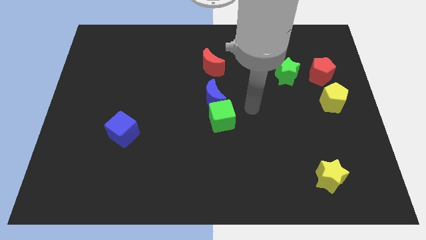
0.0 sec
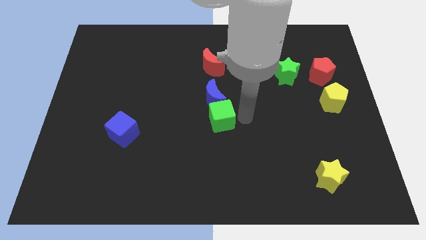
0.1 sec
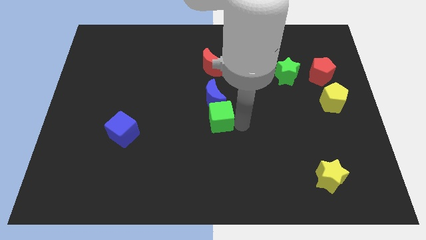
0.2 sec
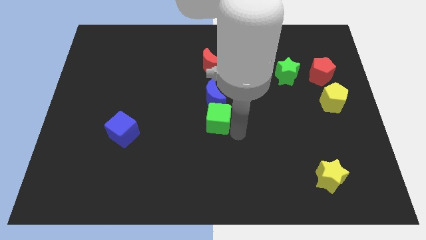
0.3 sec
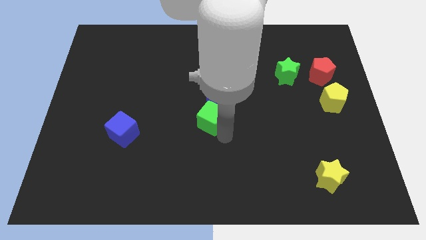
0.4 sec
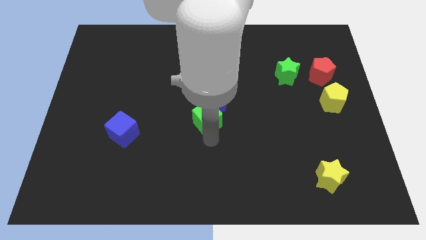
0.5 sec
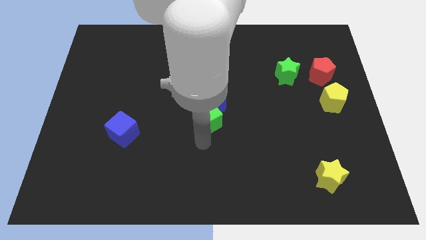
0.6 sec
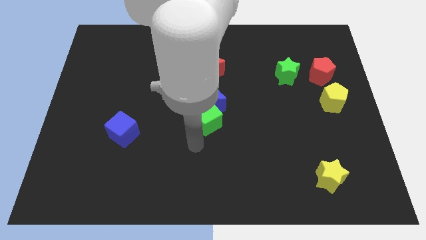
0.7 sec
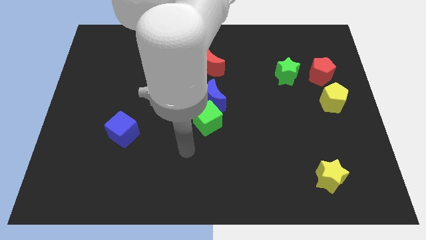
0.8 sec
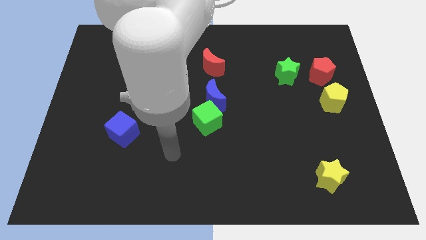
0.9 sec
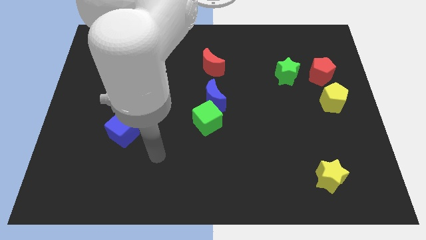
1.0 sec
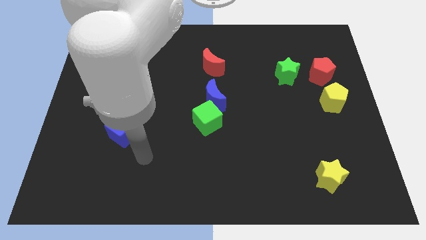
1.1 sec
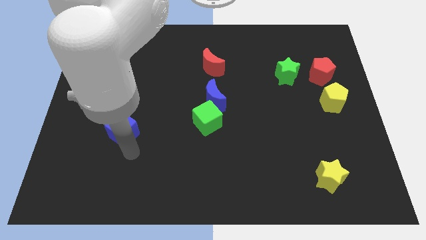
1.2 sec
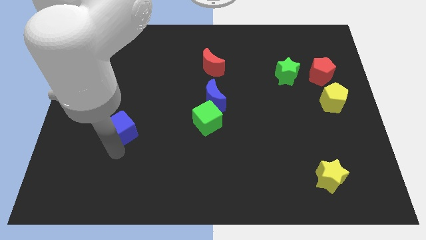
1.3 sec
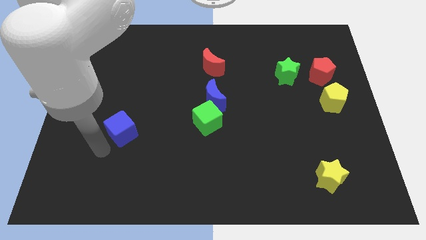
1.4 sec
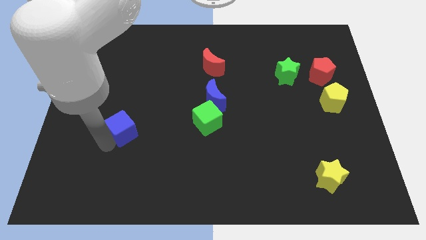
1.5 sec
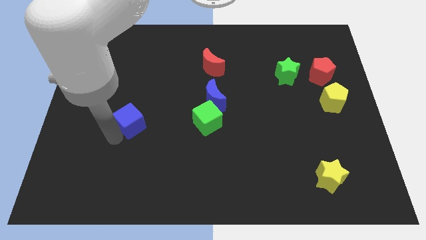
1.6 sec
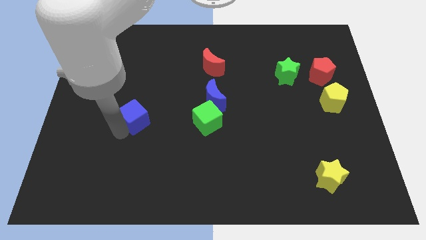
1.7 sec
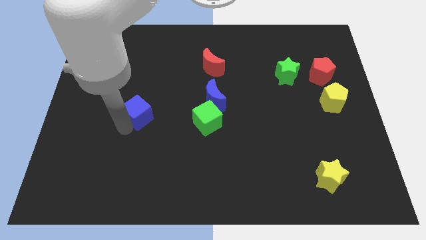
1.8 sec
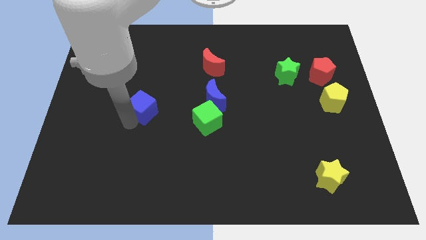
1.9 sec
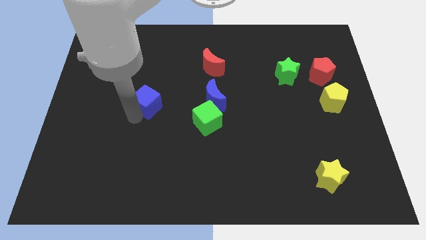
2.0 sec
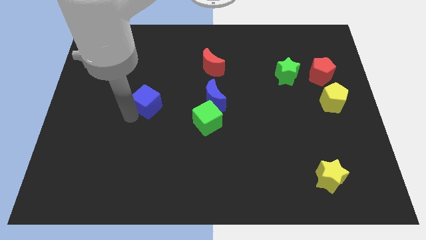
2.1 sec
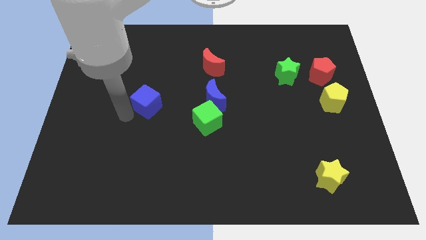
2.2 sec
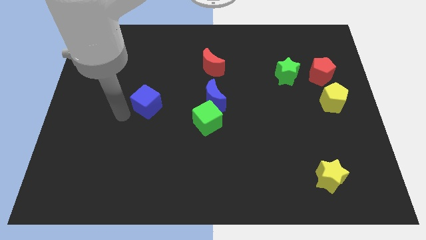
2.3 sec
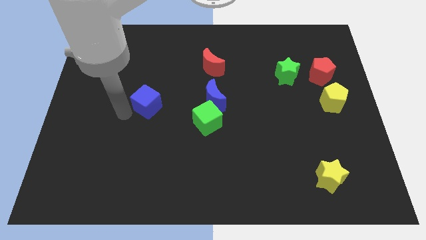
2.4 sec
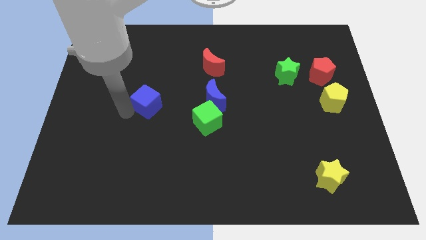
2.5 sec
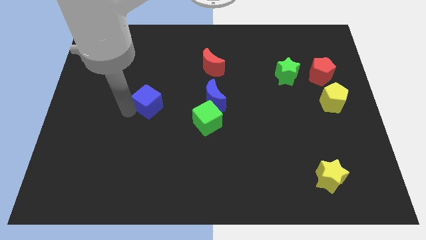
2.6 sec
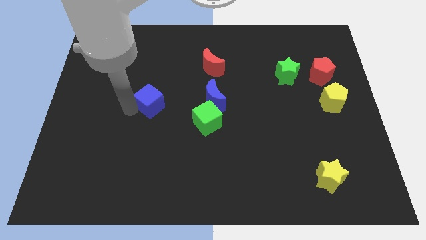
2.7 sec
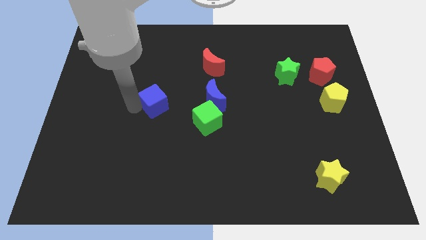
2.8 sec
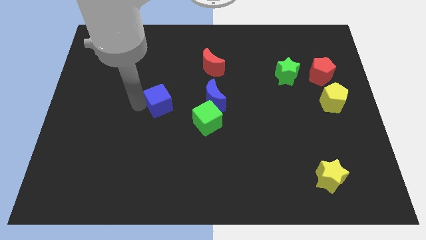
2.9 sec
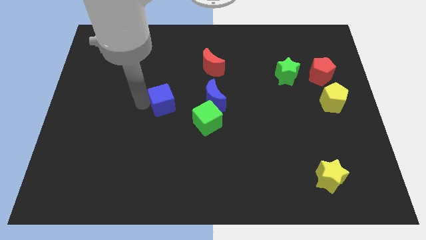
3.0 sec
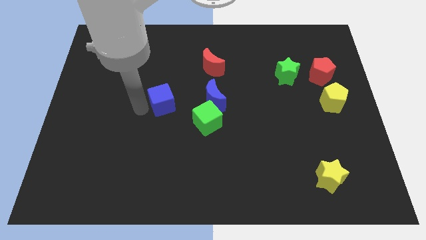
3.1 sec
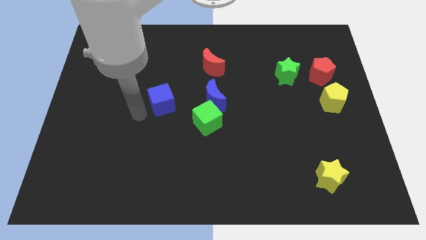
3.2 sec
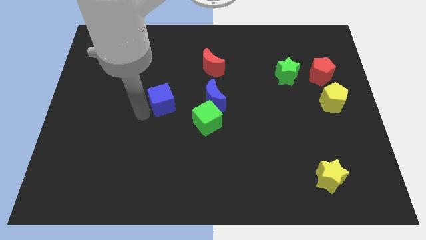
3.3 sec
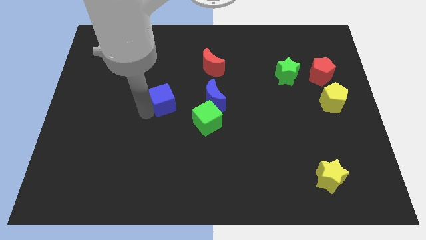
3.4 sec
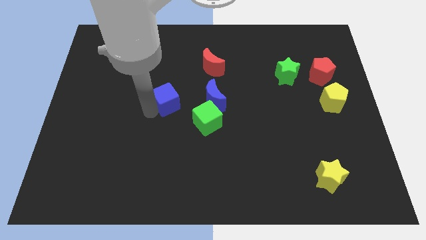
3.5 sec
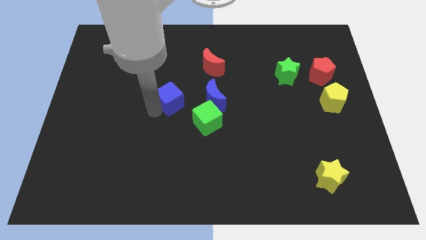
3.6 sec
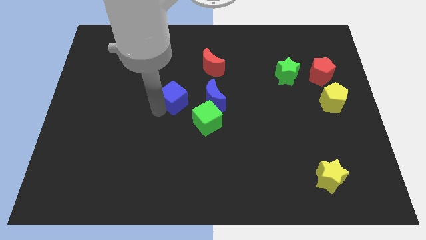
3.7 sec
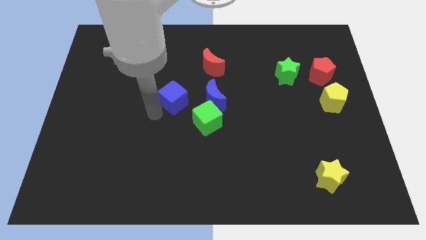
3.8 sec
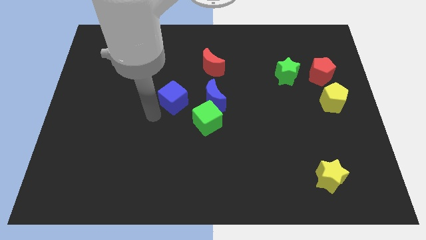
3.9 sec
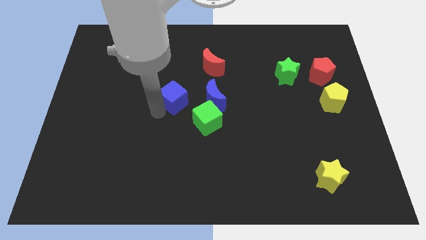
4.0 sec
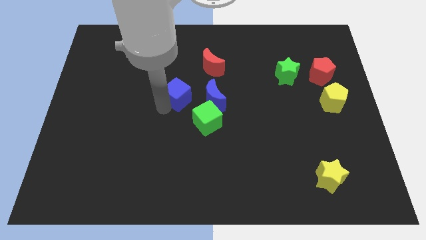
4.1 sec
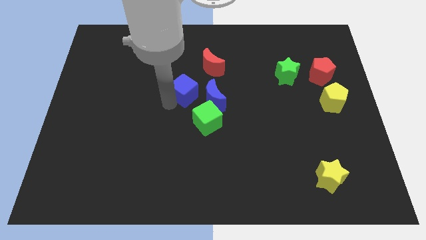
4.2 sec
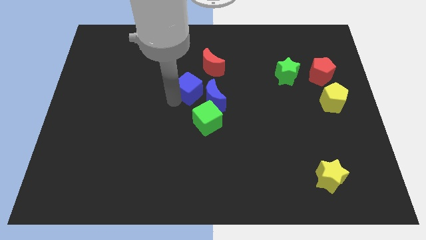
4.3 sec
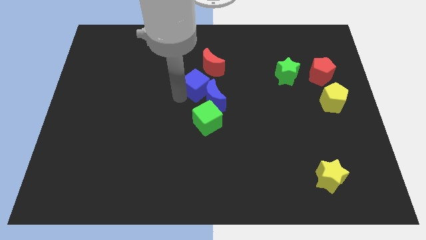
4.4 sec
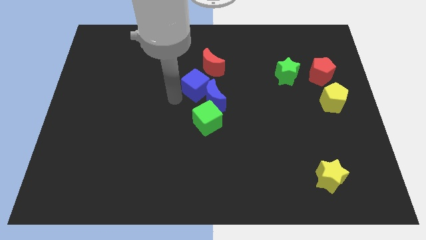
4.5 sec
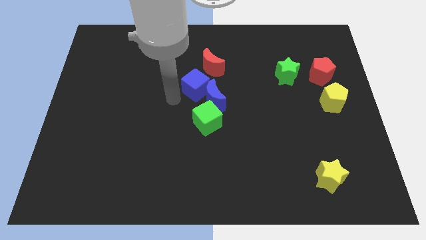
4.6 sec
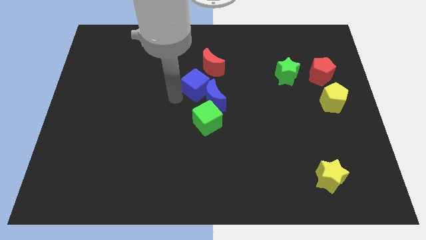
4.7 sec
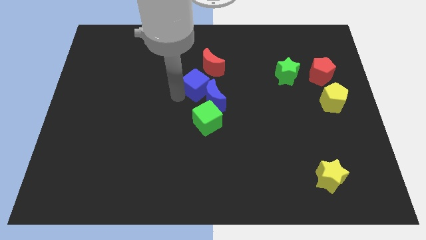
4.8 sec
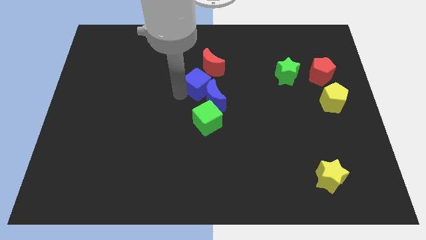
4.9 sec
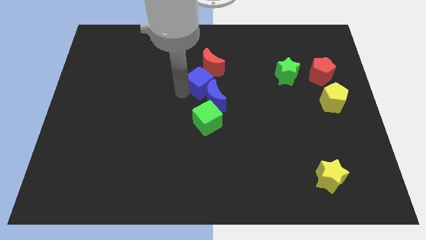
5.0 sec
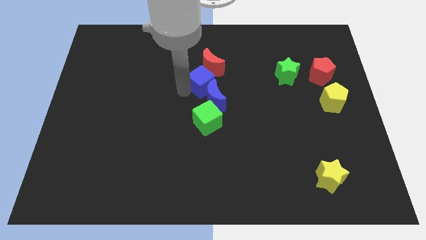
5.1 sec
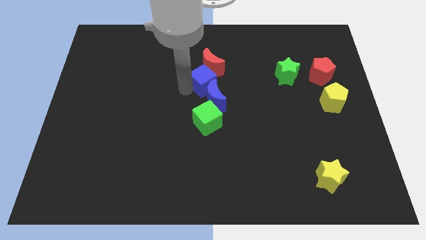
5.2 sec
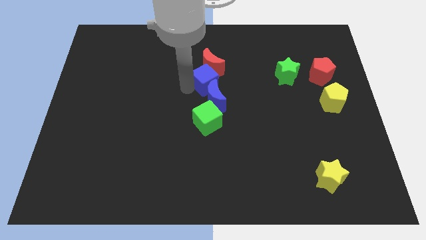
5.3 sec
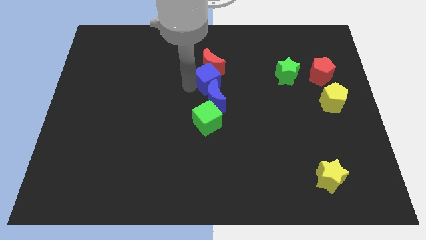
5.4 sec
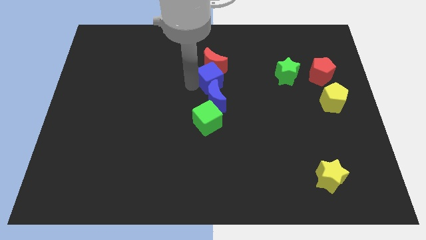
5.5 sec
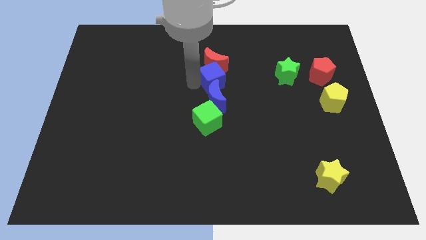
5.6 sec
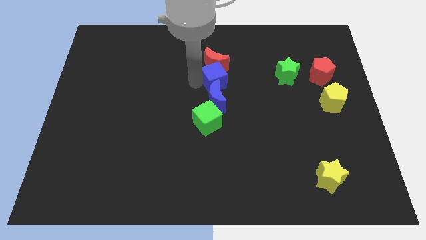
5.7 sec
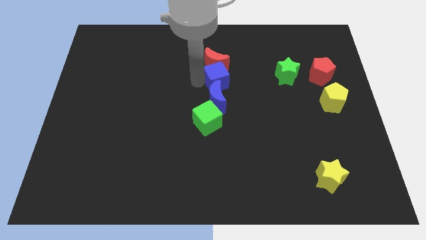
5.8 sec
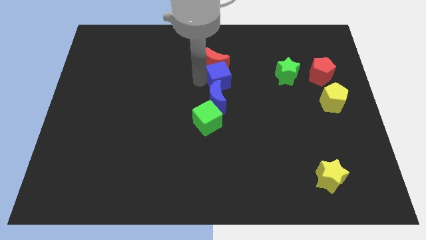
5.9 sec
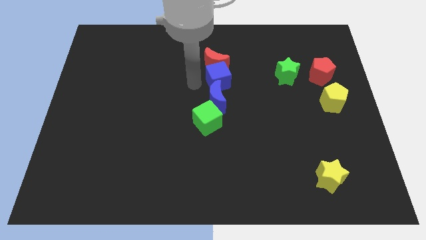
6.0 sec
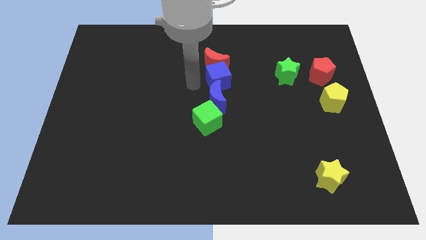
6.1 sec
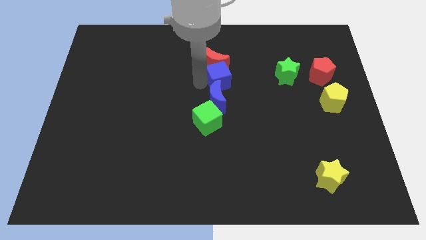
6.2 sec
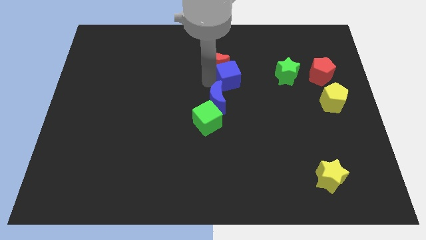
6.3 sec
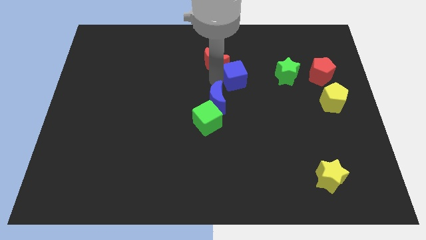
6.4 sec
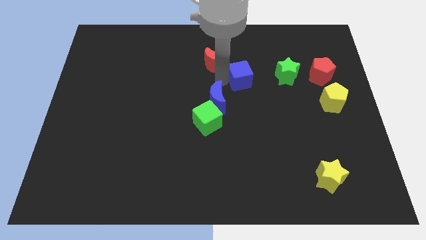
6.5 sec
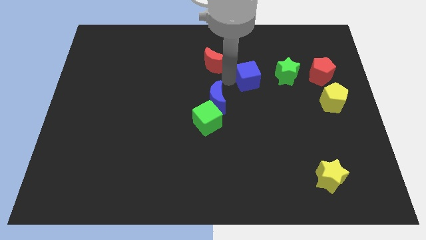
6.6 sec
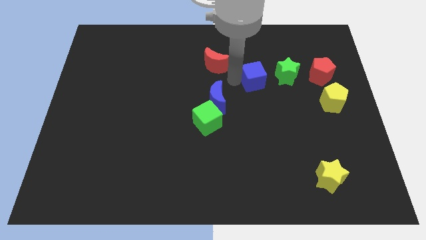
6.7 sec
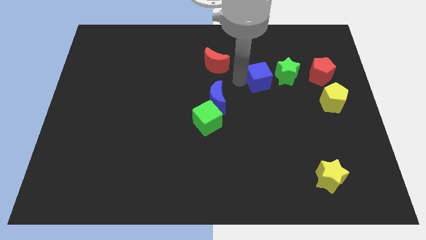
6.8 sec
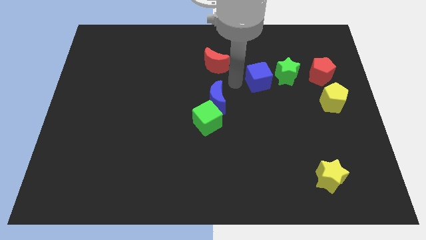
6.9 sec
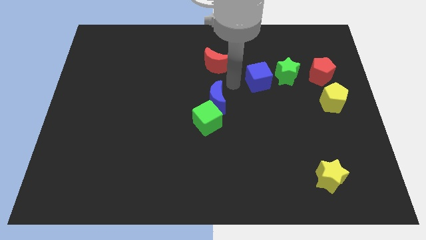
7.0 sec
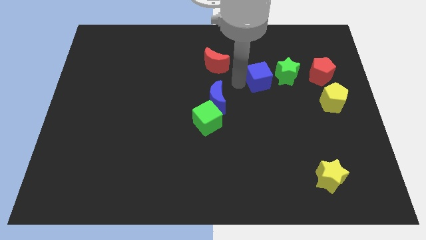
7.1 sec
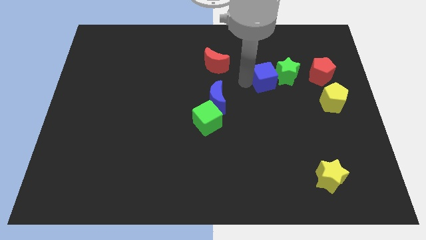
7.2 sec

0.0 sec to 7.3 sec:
slide the blue cube towards the green star

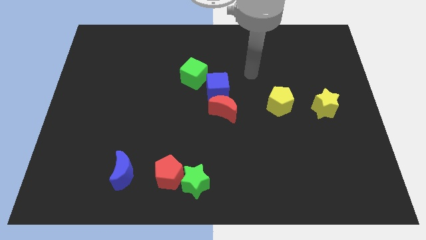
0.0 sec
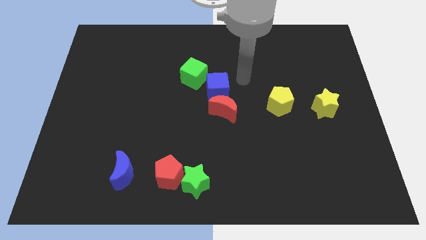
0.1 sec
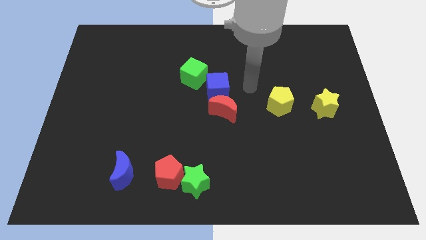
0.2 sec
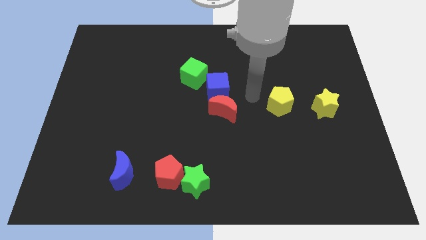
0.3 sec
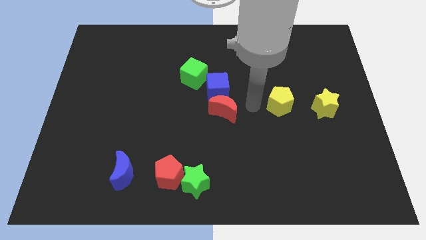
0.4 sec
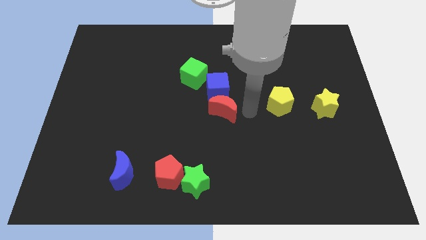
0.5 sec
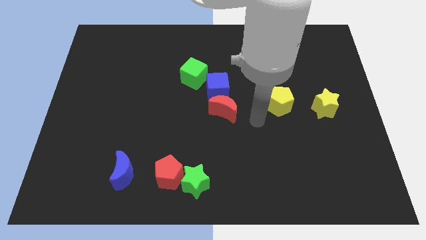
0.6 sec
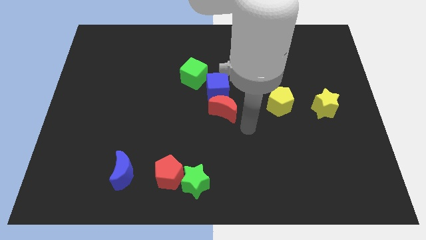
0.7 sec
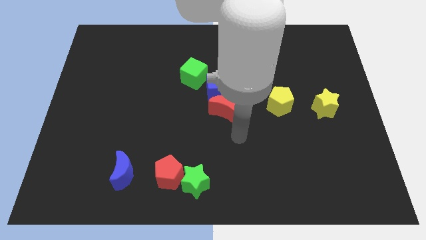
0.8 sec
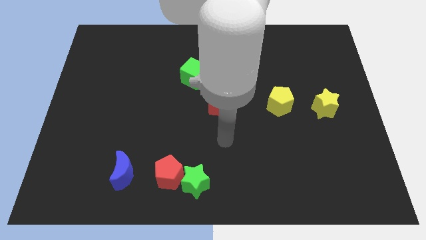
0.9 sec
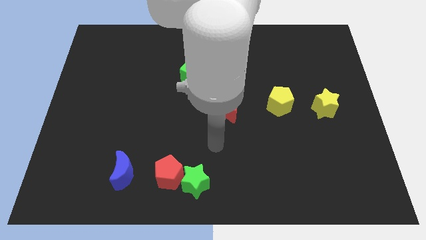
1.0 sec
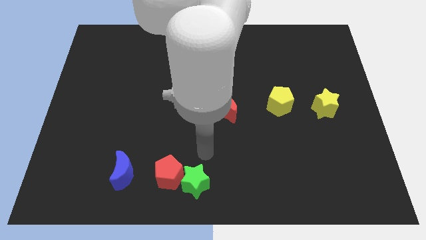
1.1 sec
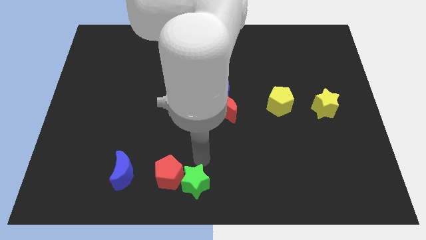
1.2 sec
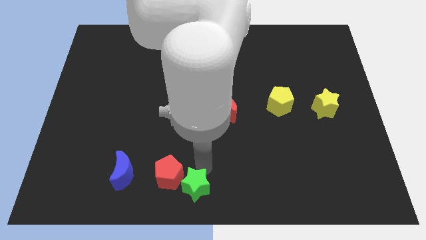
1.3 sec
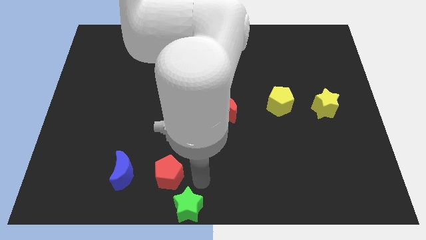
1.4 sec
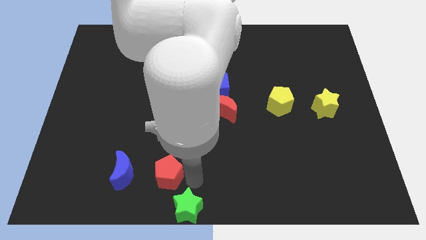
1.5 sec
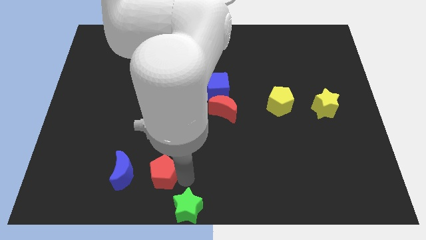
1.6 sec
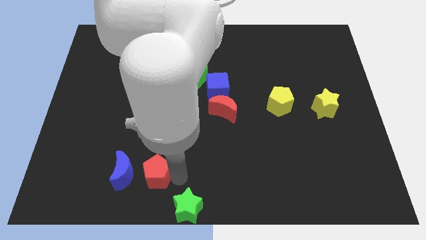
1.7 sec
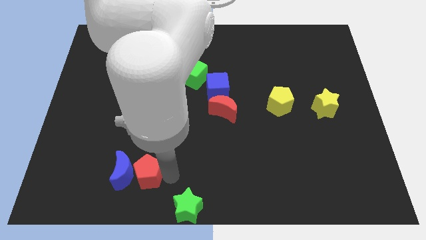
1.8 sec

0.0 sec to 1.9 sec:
move the red pentagon towards the blue moon
